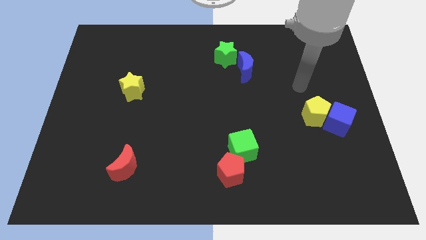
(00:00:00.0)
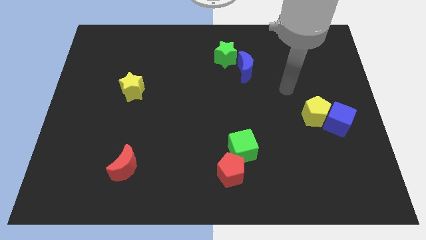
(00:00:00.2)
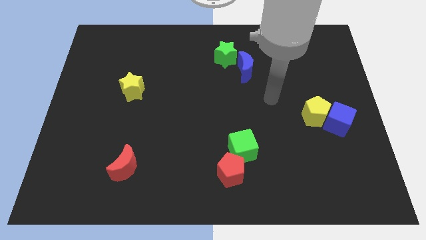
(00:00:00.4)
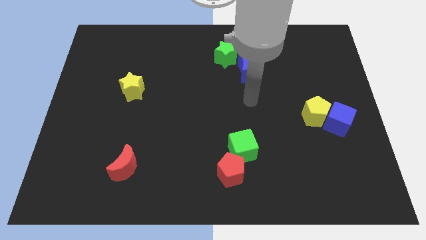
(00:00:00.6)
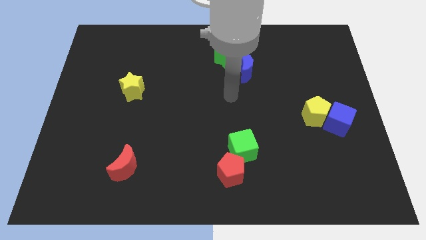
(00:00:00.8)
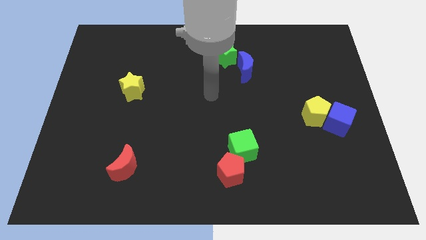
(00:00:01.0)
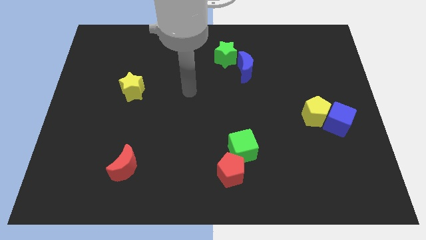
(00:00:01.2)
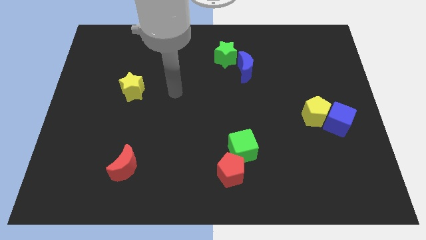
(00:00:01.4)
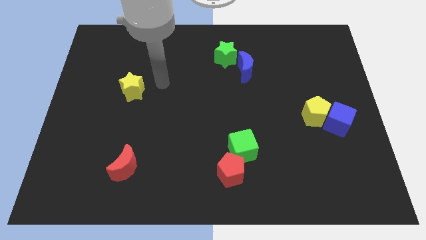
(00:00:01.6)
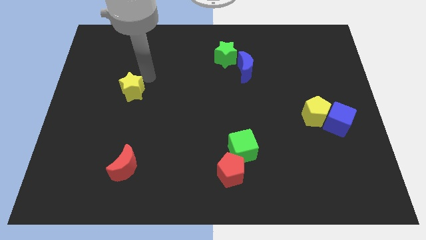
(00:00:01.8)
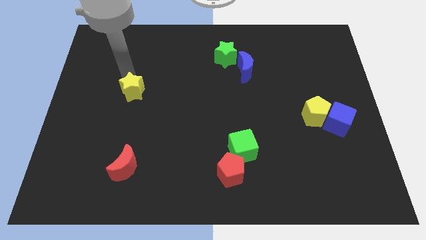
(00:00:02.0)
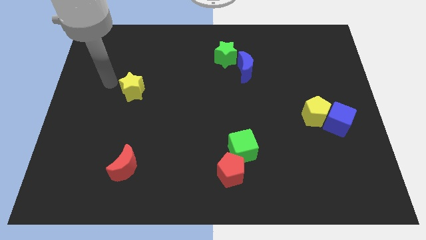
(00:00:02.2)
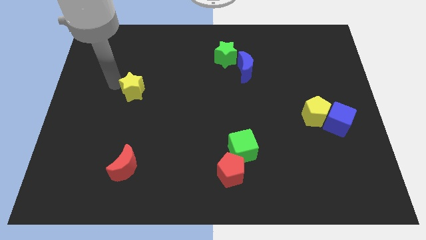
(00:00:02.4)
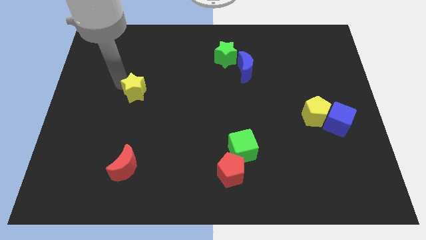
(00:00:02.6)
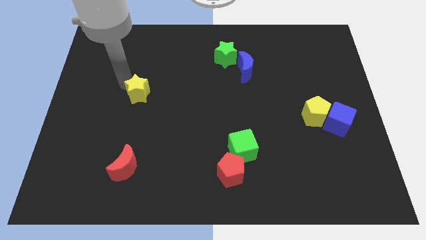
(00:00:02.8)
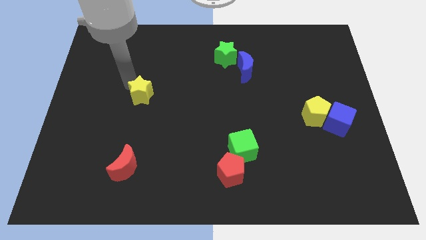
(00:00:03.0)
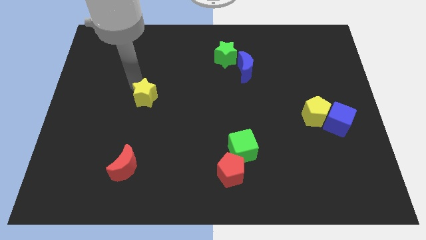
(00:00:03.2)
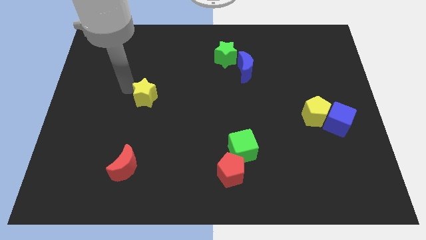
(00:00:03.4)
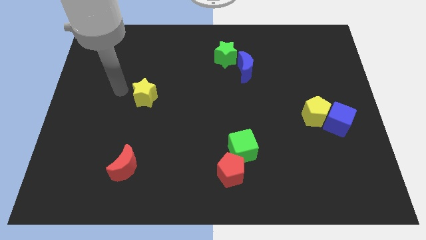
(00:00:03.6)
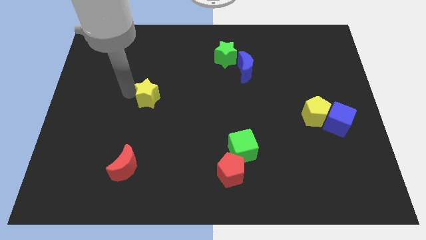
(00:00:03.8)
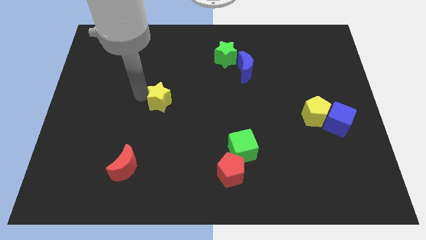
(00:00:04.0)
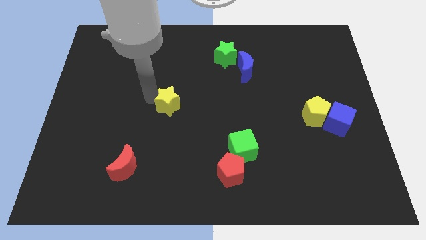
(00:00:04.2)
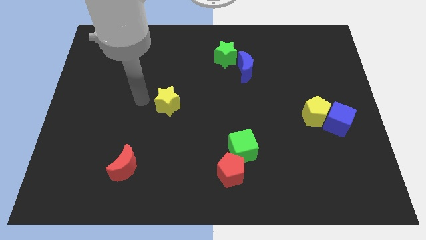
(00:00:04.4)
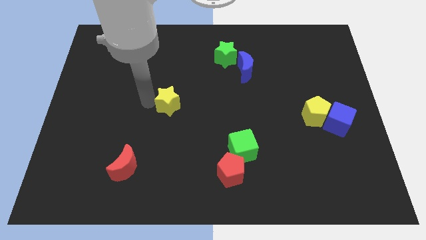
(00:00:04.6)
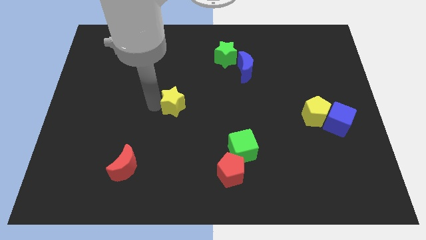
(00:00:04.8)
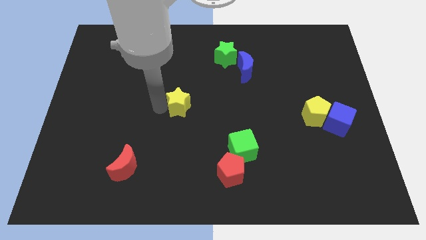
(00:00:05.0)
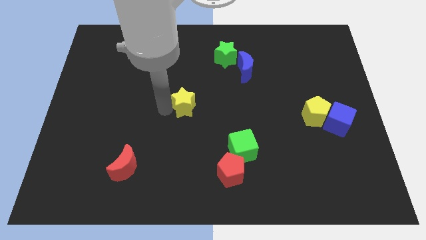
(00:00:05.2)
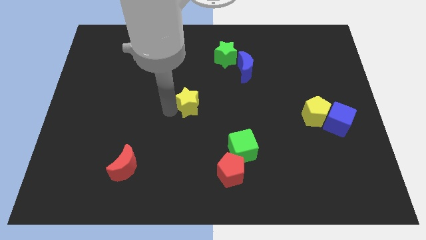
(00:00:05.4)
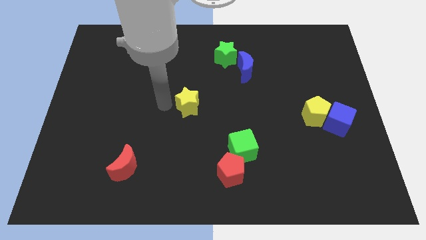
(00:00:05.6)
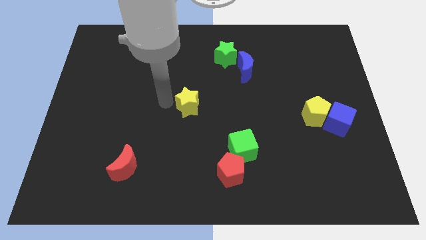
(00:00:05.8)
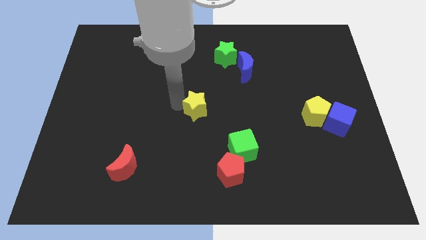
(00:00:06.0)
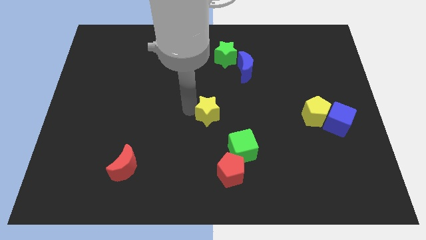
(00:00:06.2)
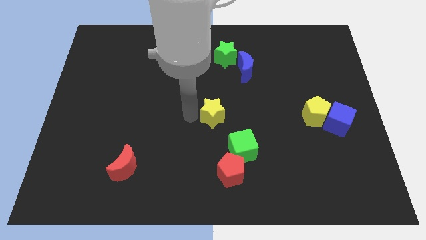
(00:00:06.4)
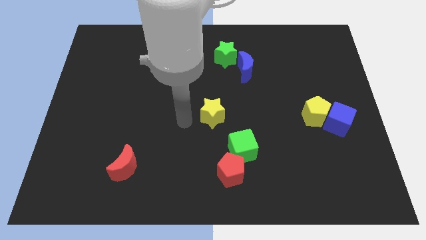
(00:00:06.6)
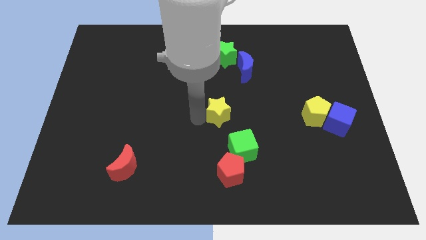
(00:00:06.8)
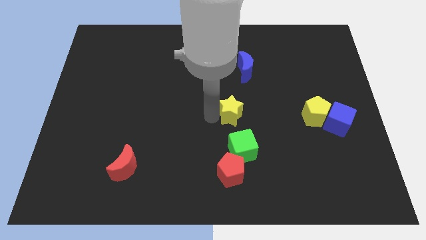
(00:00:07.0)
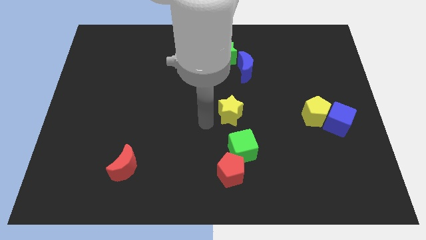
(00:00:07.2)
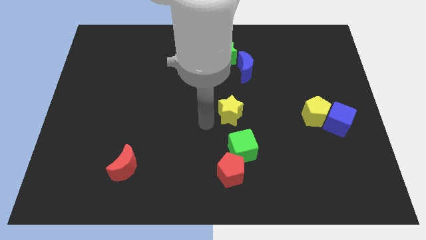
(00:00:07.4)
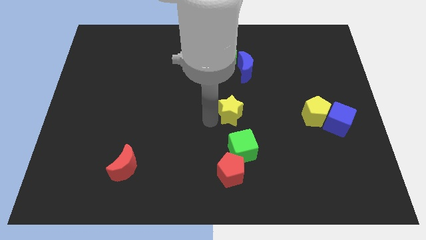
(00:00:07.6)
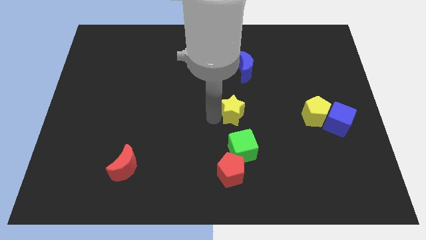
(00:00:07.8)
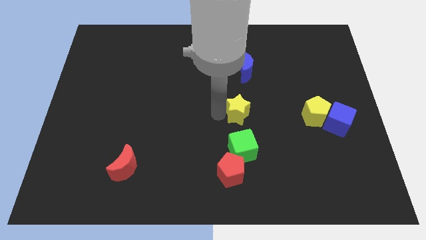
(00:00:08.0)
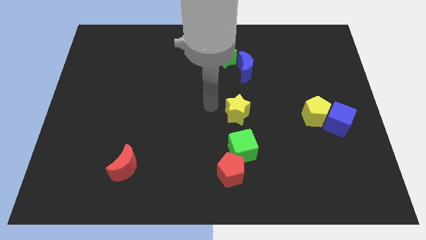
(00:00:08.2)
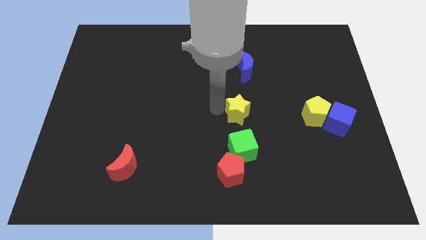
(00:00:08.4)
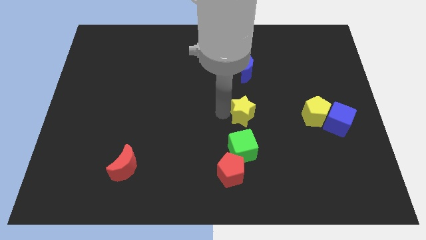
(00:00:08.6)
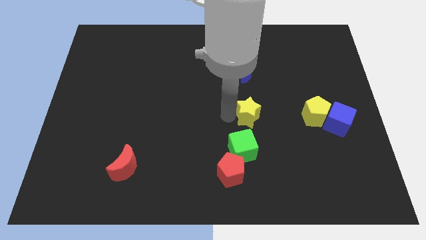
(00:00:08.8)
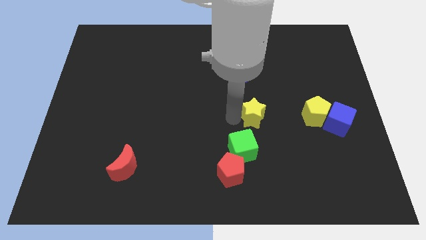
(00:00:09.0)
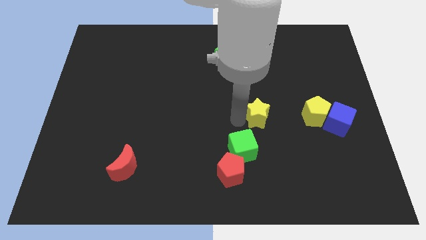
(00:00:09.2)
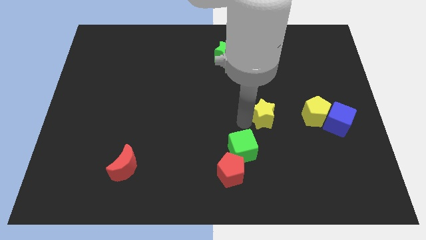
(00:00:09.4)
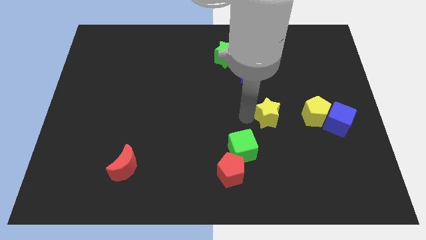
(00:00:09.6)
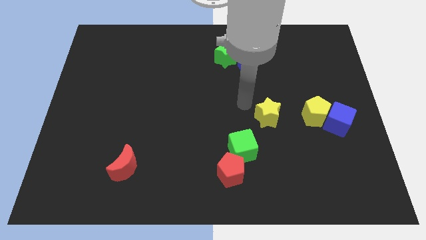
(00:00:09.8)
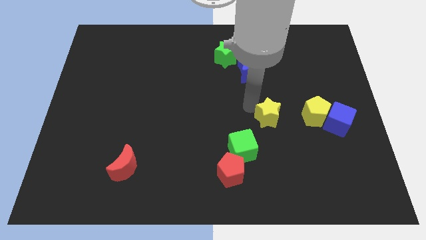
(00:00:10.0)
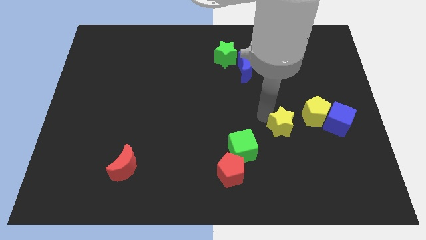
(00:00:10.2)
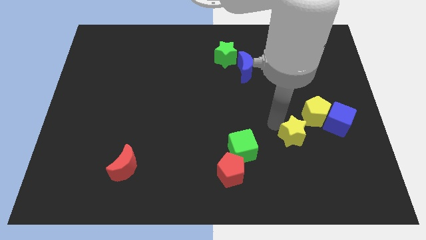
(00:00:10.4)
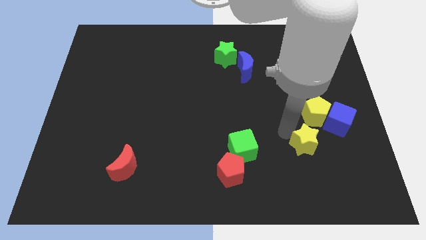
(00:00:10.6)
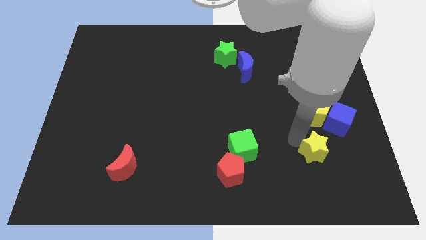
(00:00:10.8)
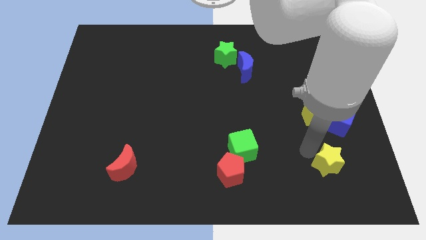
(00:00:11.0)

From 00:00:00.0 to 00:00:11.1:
put the yellow star below the blue cube

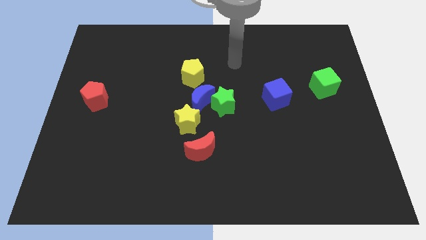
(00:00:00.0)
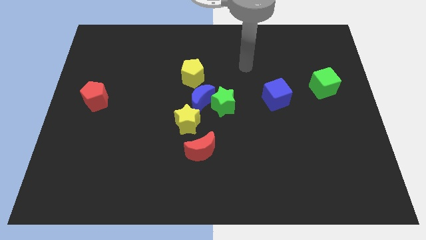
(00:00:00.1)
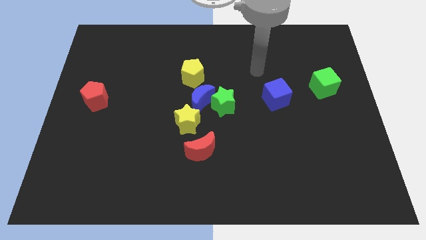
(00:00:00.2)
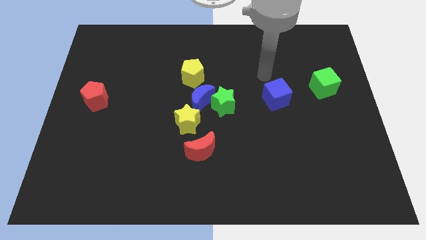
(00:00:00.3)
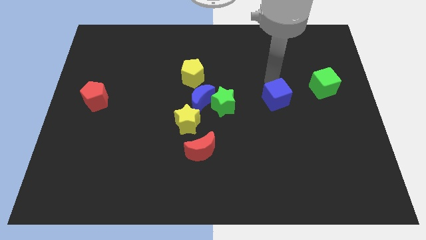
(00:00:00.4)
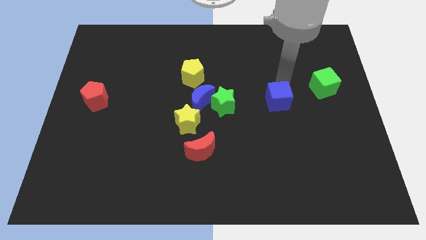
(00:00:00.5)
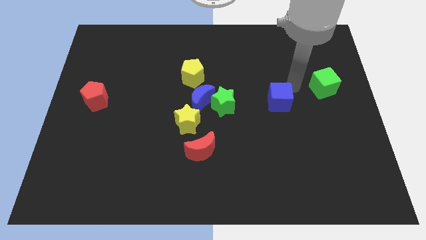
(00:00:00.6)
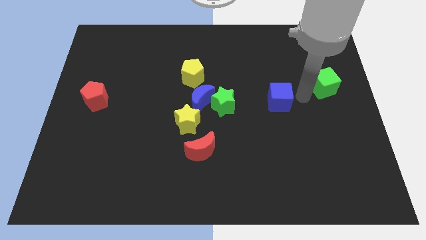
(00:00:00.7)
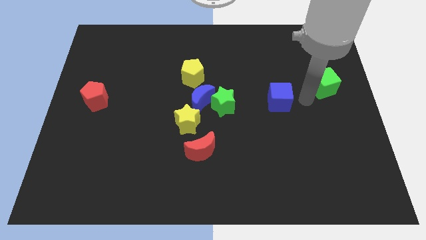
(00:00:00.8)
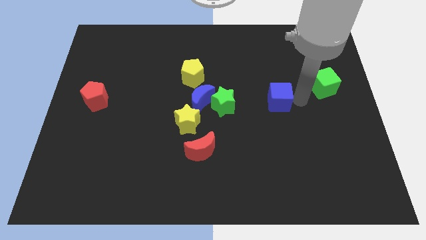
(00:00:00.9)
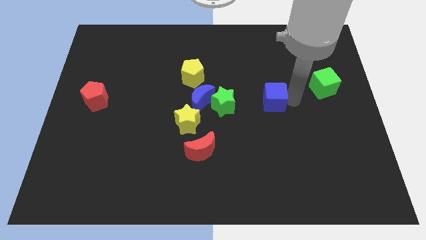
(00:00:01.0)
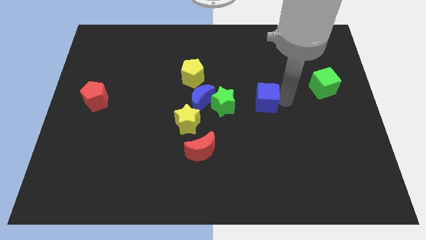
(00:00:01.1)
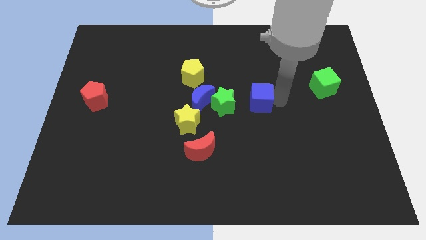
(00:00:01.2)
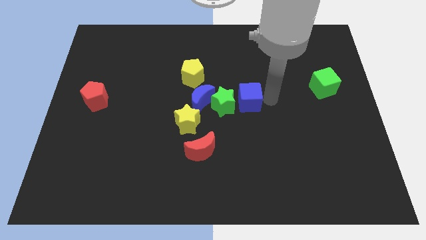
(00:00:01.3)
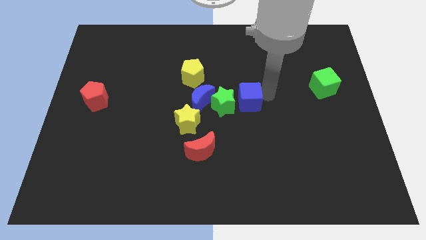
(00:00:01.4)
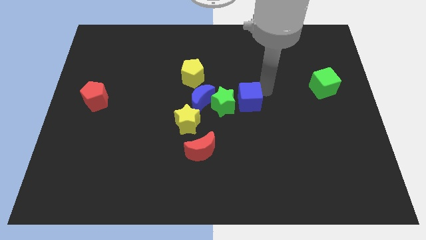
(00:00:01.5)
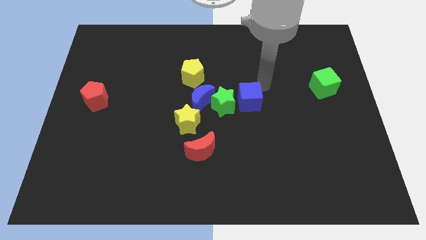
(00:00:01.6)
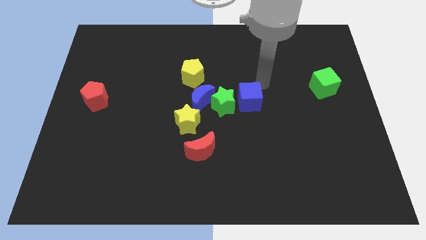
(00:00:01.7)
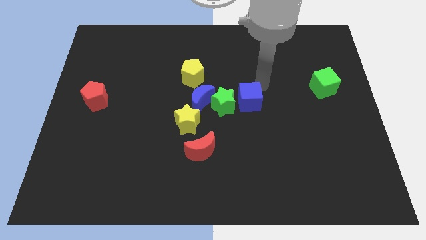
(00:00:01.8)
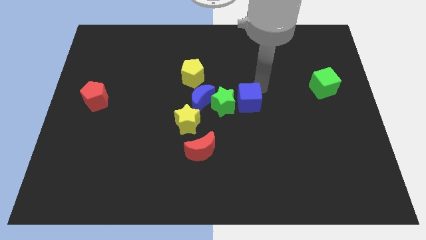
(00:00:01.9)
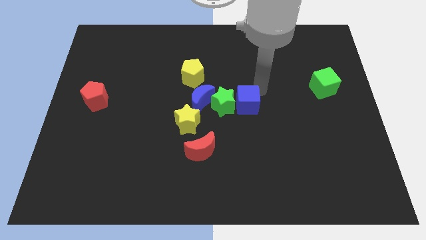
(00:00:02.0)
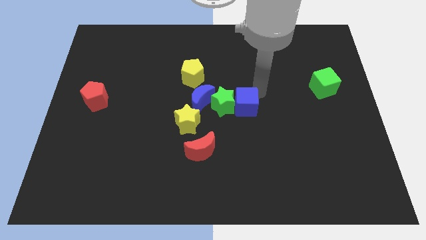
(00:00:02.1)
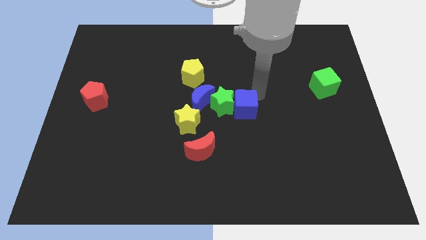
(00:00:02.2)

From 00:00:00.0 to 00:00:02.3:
slide the blue cube just right of the yellow star
